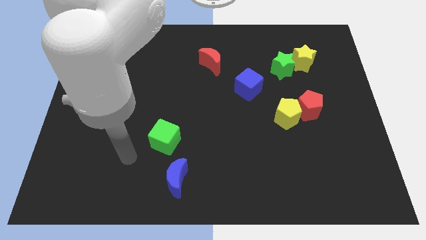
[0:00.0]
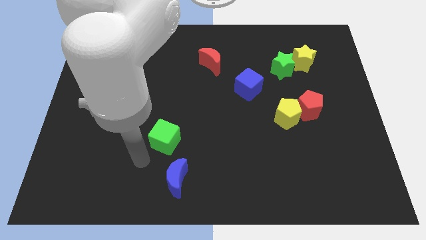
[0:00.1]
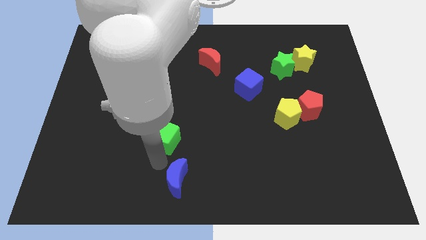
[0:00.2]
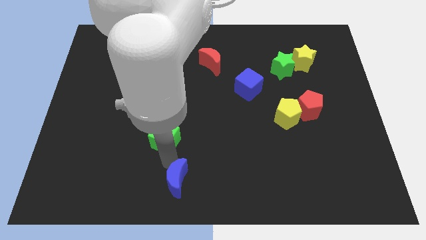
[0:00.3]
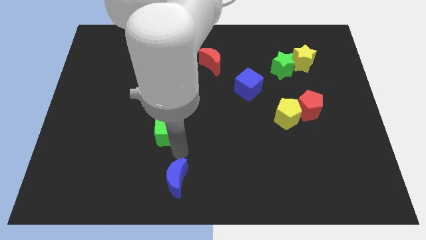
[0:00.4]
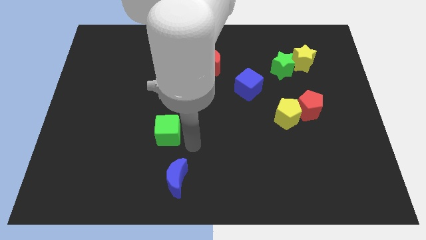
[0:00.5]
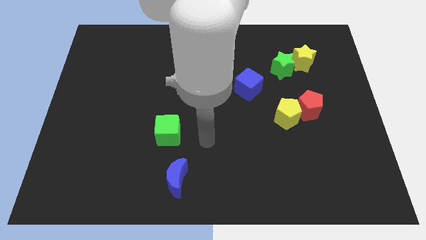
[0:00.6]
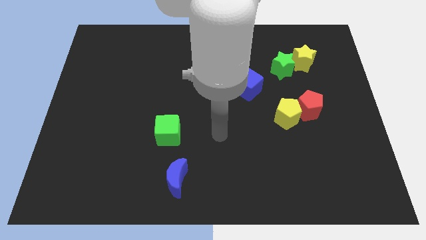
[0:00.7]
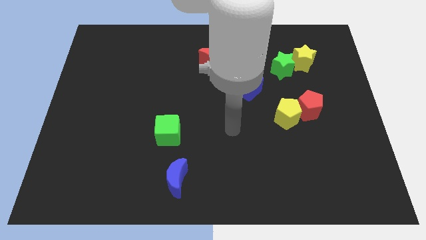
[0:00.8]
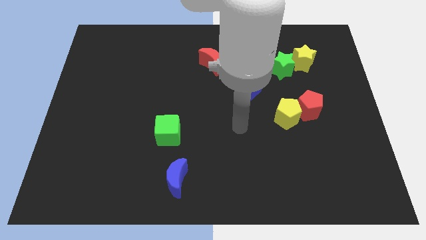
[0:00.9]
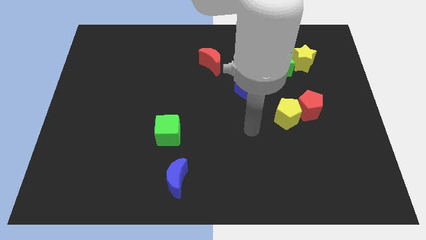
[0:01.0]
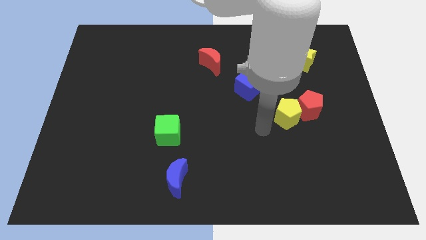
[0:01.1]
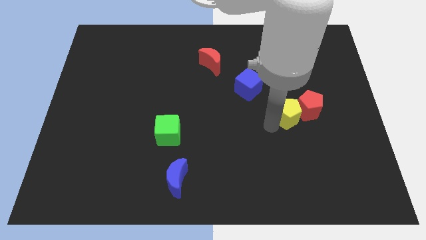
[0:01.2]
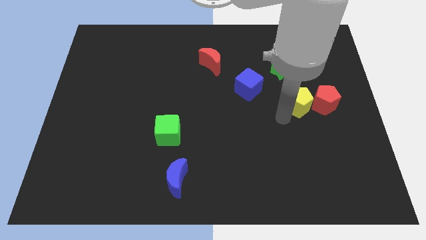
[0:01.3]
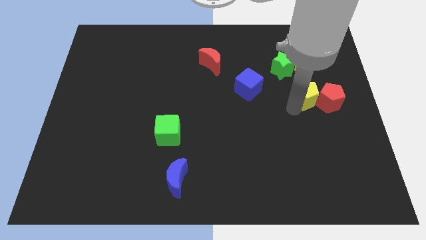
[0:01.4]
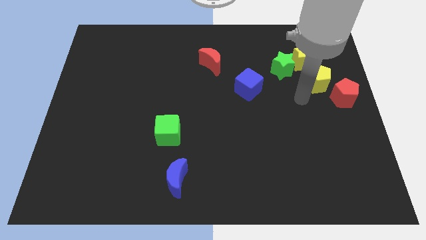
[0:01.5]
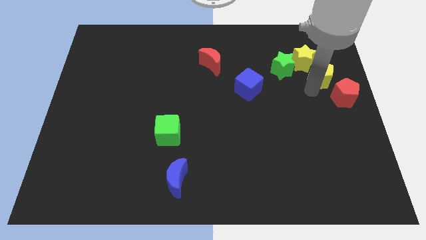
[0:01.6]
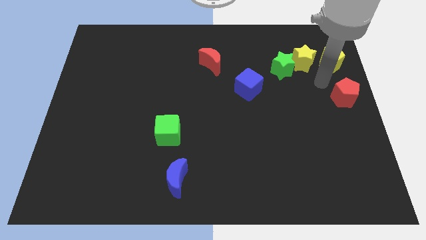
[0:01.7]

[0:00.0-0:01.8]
separate the red pentagon from the yellow pentagon

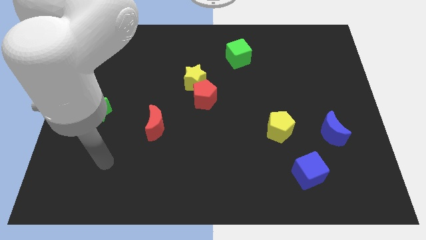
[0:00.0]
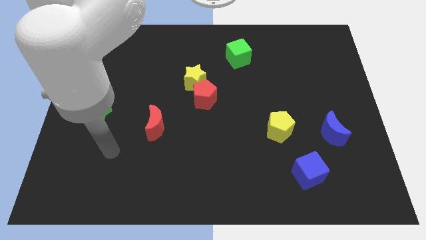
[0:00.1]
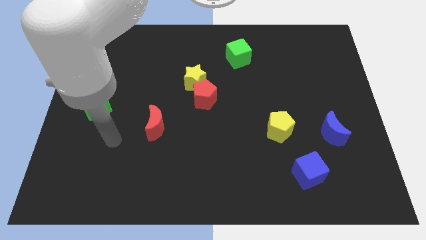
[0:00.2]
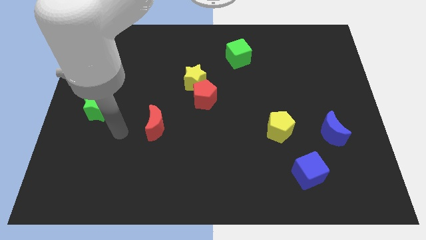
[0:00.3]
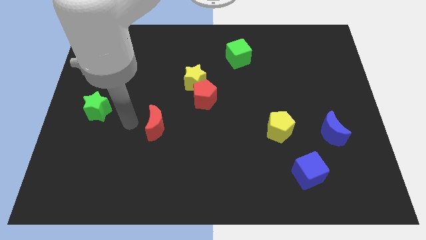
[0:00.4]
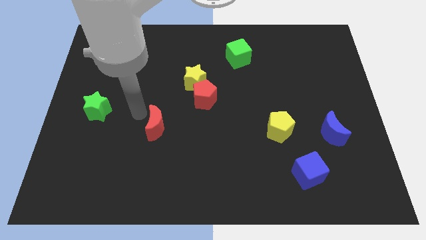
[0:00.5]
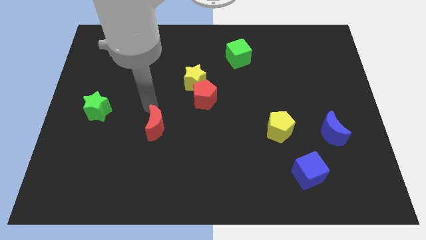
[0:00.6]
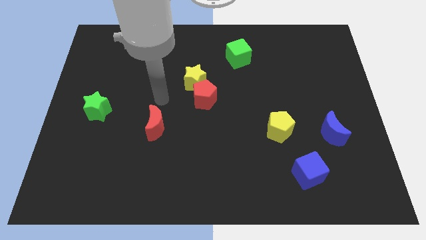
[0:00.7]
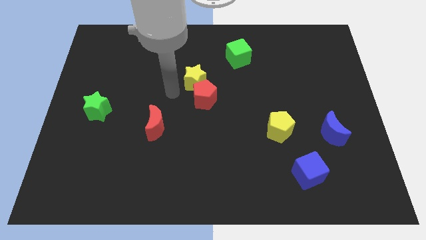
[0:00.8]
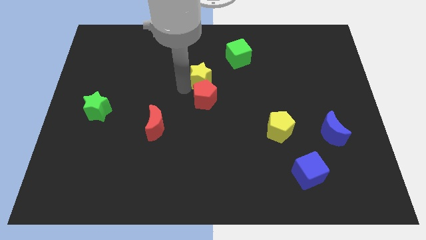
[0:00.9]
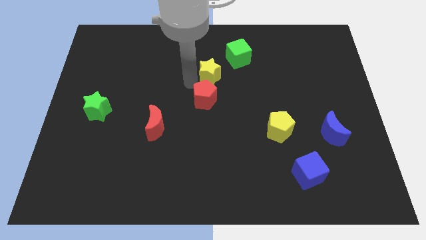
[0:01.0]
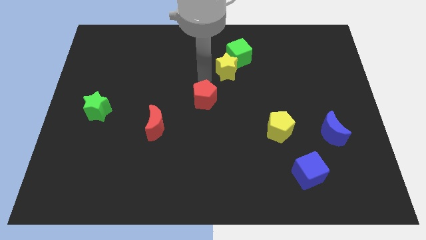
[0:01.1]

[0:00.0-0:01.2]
separate the red pentagon from the yellow star

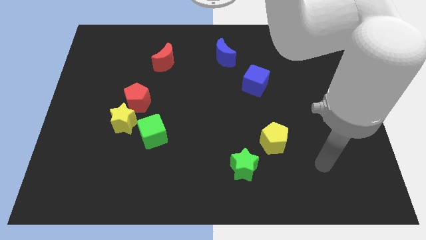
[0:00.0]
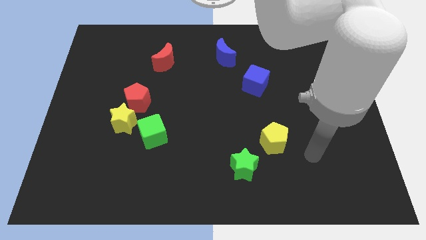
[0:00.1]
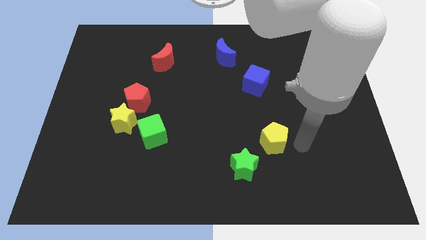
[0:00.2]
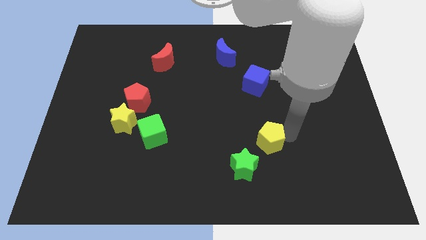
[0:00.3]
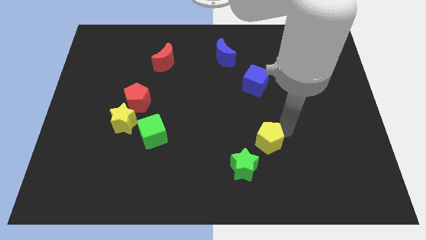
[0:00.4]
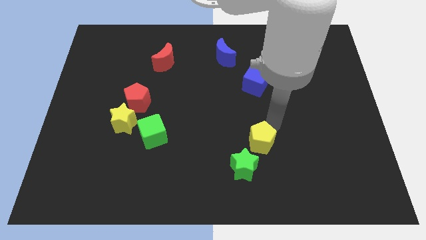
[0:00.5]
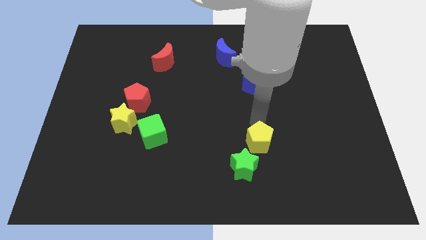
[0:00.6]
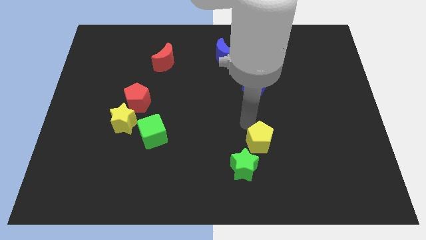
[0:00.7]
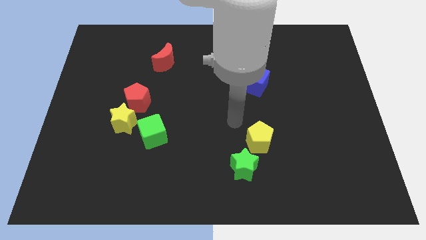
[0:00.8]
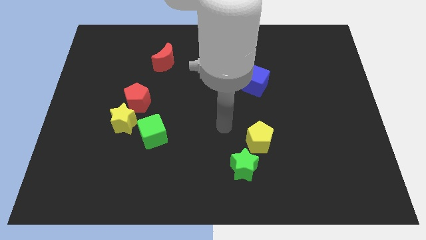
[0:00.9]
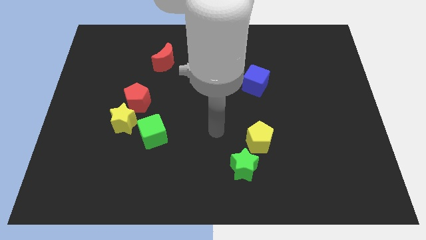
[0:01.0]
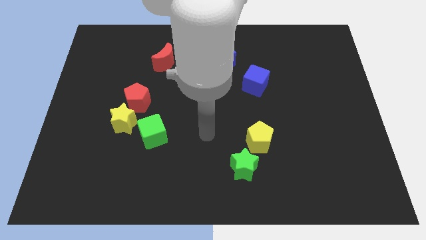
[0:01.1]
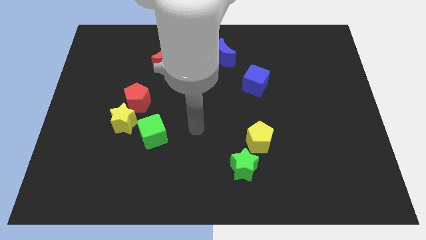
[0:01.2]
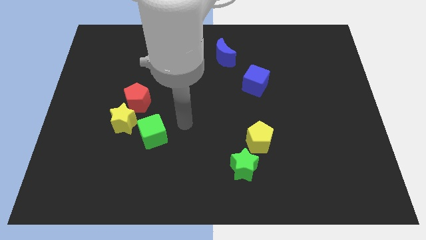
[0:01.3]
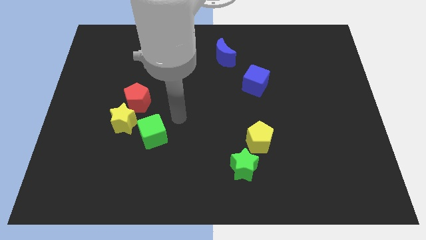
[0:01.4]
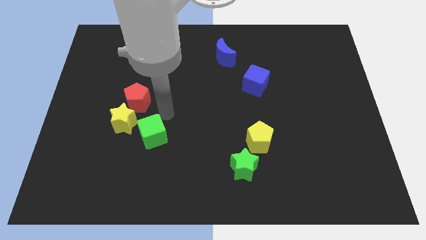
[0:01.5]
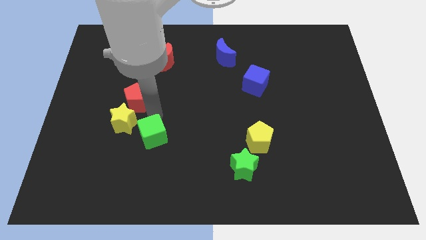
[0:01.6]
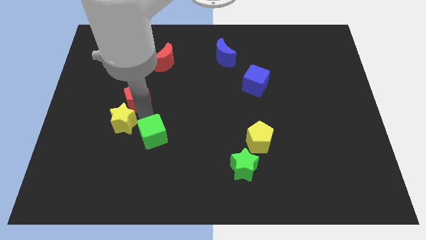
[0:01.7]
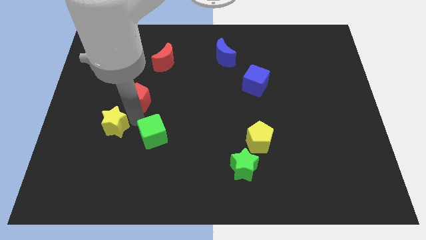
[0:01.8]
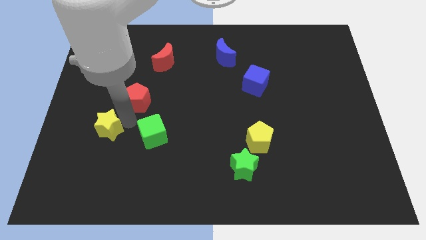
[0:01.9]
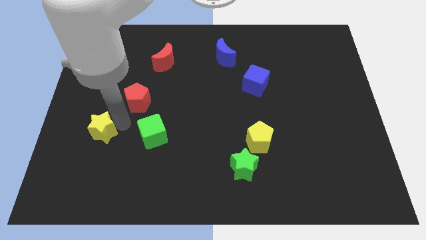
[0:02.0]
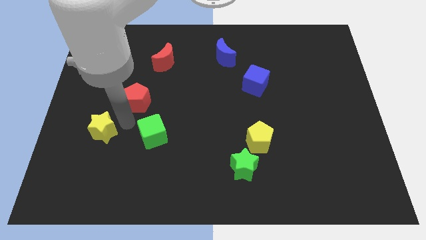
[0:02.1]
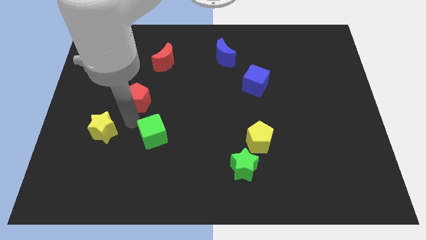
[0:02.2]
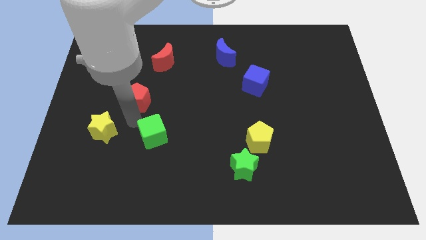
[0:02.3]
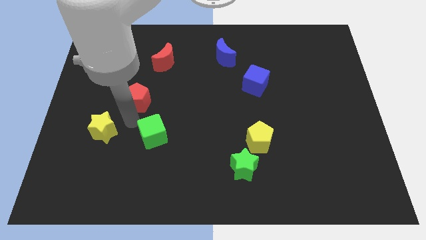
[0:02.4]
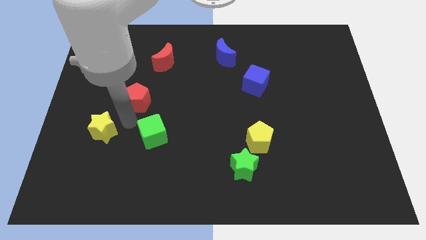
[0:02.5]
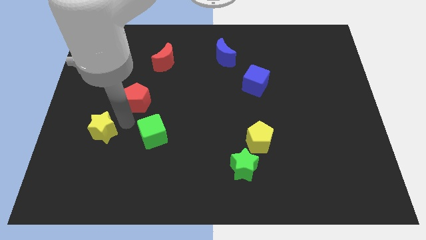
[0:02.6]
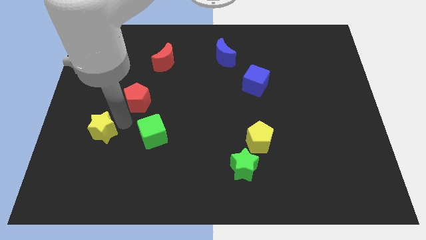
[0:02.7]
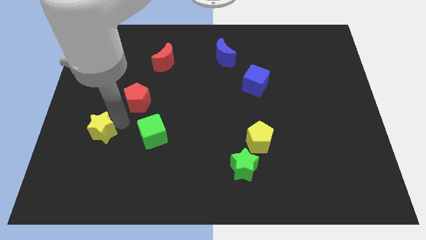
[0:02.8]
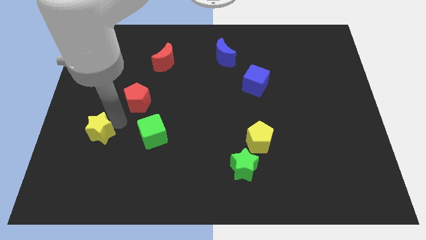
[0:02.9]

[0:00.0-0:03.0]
separate the yellow star from the red pentagon and green cube

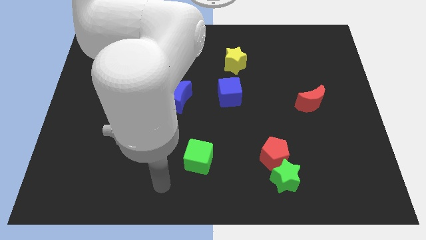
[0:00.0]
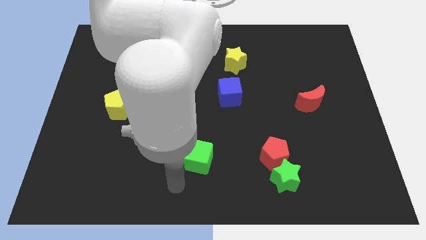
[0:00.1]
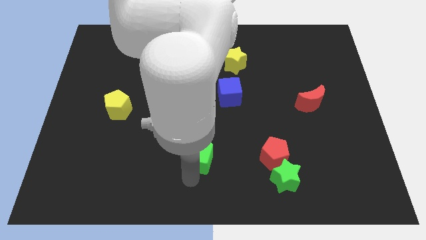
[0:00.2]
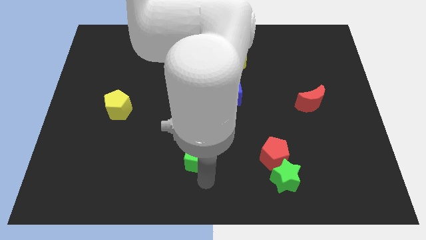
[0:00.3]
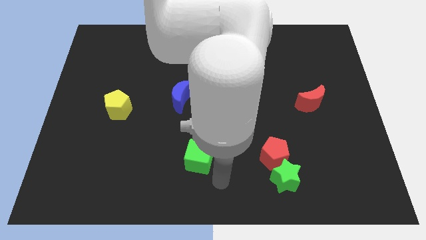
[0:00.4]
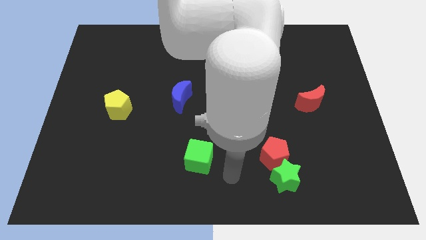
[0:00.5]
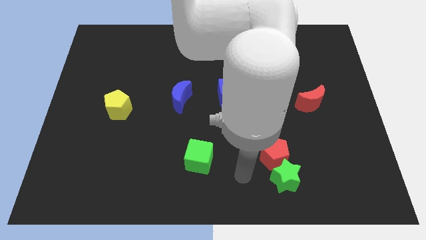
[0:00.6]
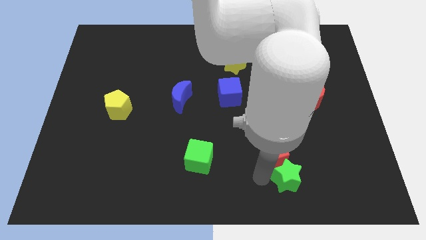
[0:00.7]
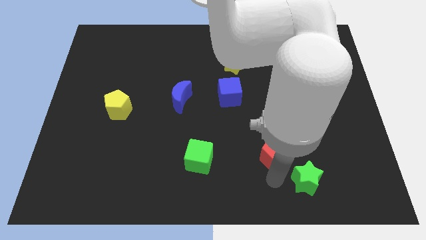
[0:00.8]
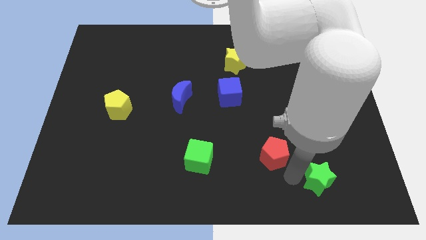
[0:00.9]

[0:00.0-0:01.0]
pull the red pentagon apart from the green star

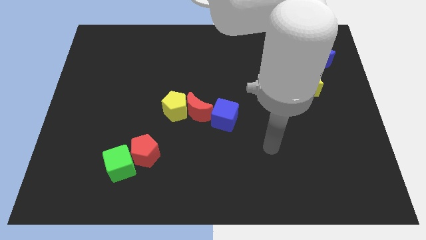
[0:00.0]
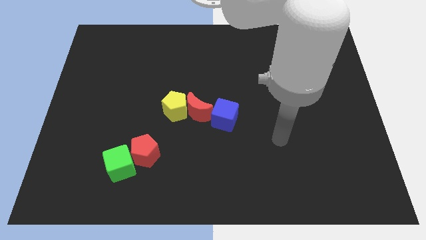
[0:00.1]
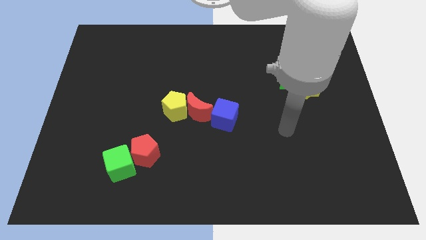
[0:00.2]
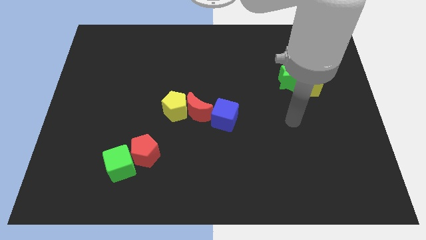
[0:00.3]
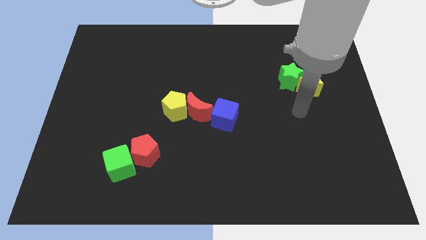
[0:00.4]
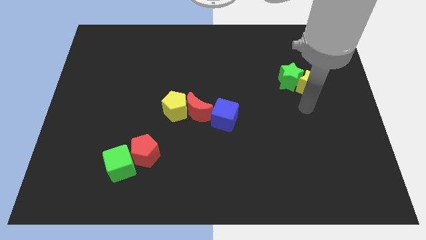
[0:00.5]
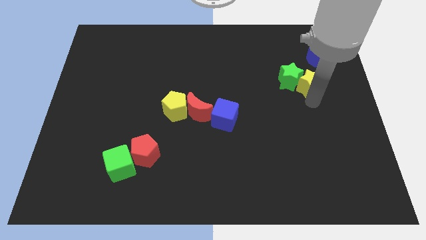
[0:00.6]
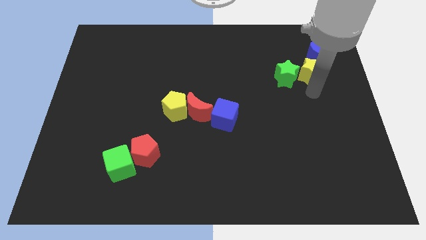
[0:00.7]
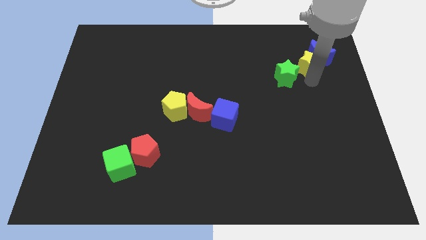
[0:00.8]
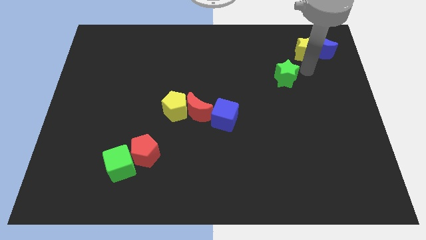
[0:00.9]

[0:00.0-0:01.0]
separate the green star from the yellow star

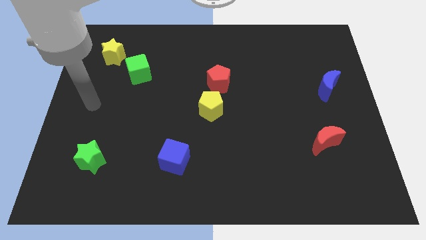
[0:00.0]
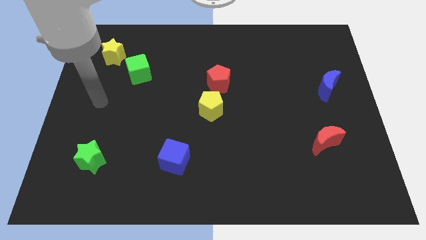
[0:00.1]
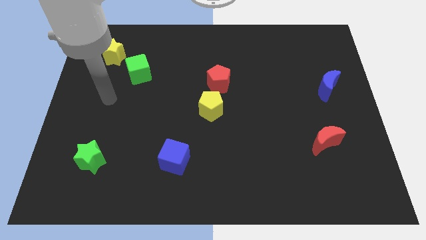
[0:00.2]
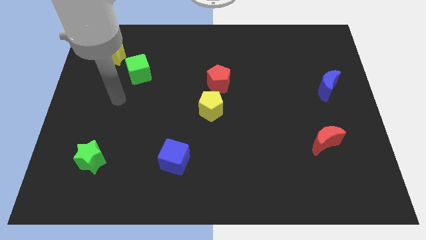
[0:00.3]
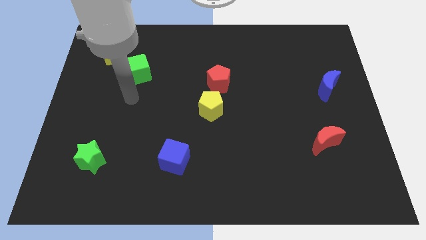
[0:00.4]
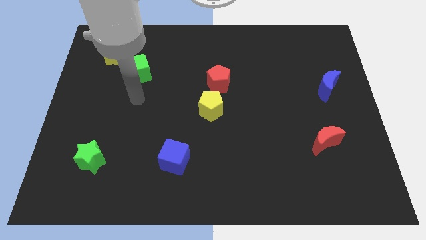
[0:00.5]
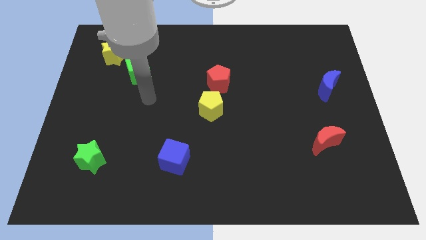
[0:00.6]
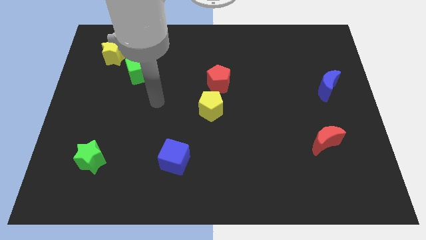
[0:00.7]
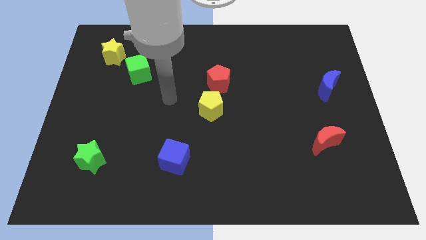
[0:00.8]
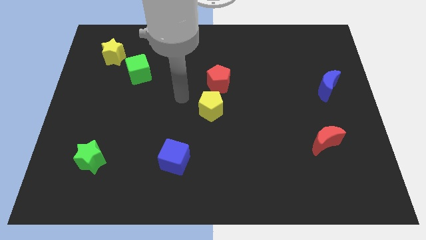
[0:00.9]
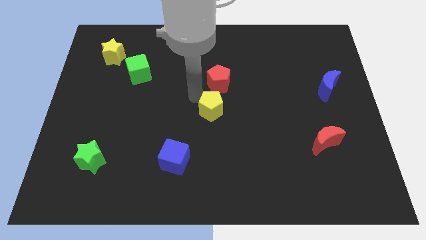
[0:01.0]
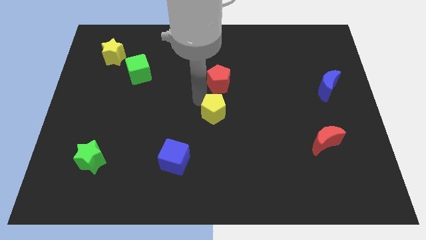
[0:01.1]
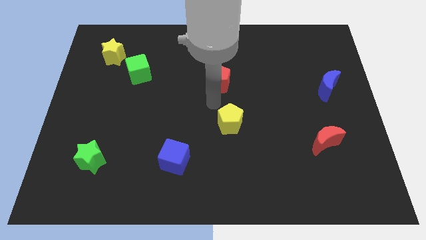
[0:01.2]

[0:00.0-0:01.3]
move the red pentagon away from the yellow pentagon
